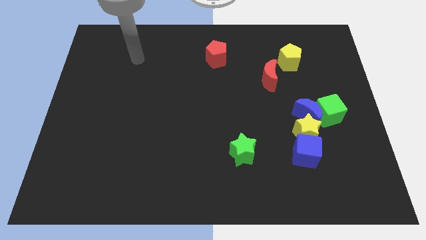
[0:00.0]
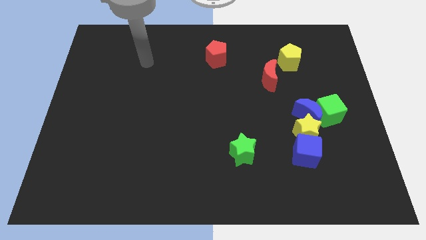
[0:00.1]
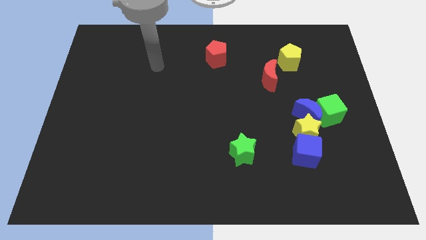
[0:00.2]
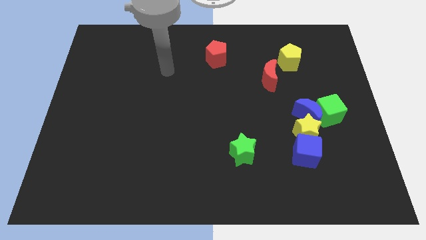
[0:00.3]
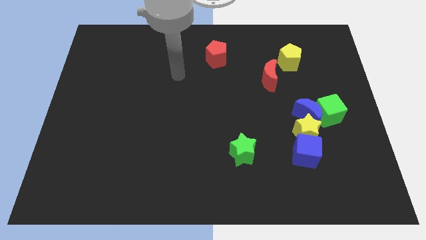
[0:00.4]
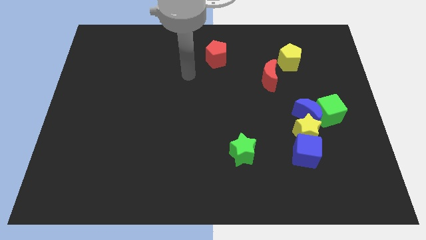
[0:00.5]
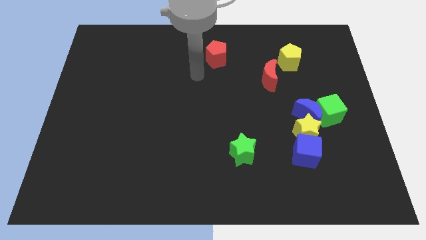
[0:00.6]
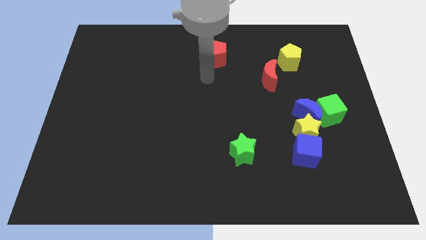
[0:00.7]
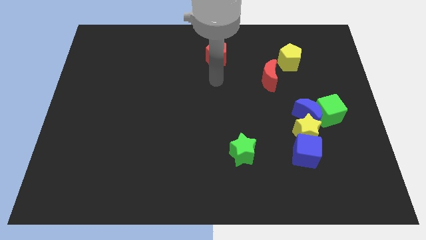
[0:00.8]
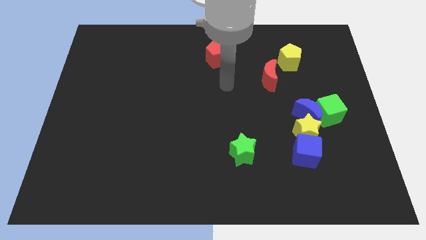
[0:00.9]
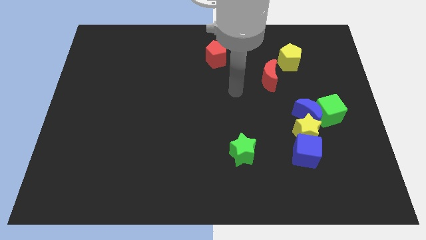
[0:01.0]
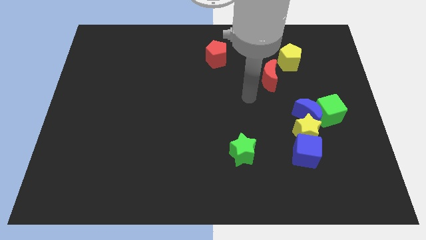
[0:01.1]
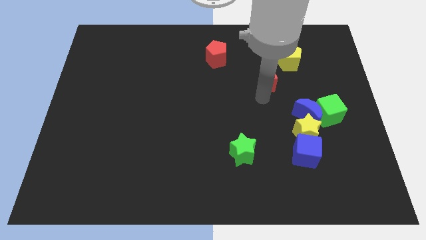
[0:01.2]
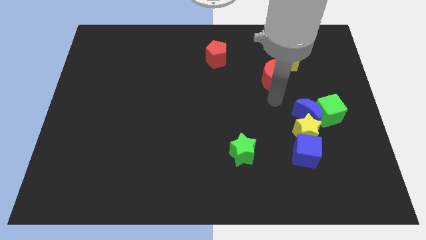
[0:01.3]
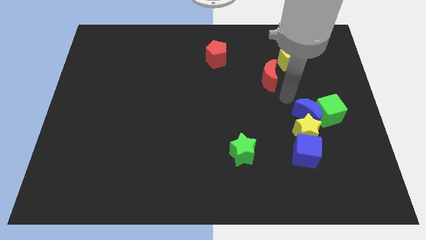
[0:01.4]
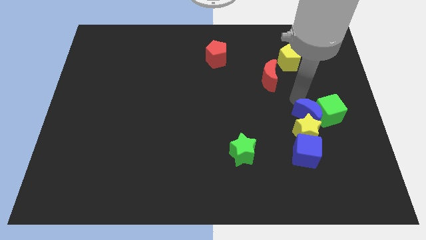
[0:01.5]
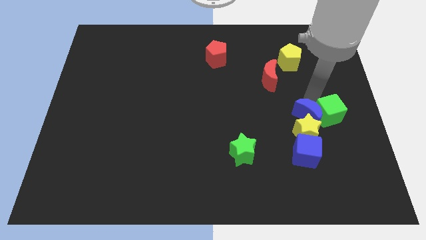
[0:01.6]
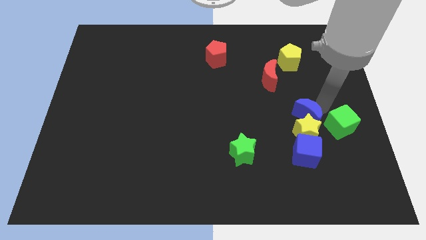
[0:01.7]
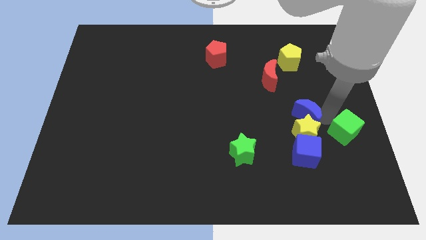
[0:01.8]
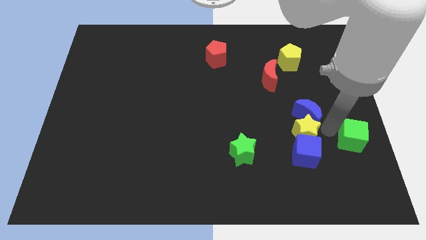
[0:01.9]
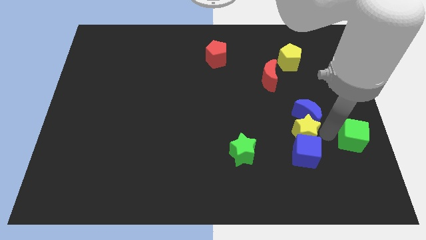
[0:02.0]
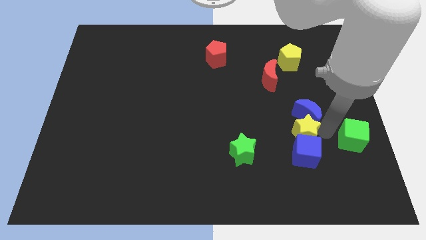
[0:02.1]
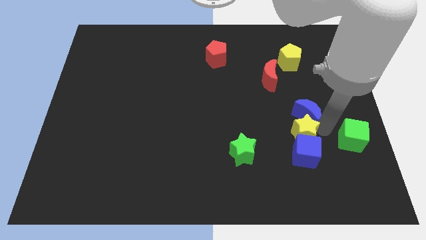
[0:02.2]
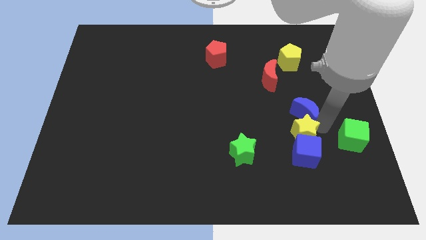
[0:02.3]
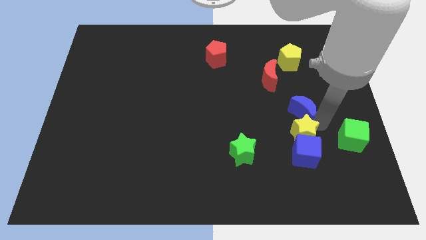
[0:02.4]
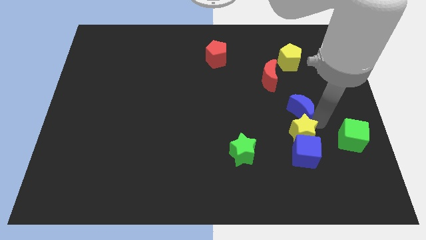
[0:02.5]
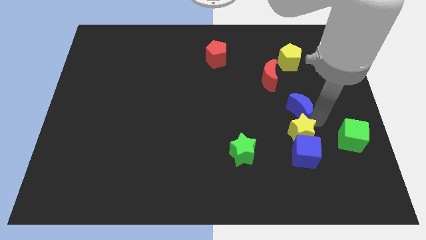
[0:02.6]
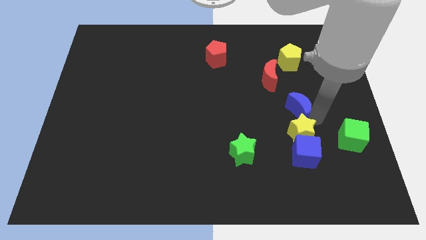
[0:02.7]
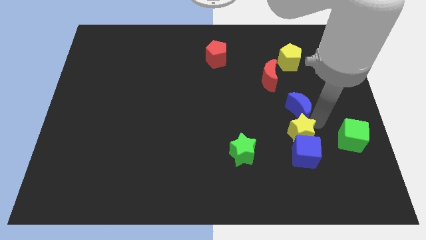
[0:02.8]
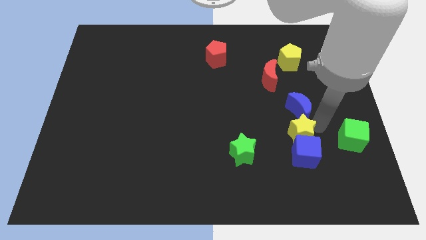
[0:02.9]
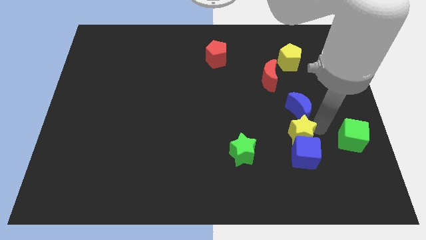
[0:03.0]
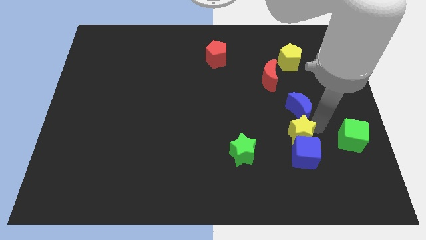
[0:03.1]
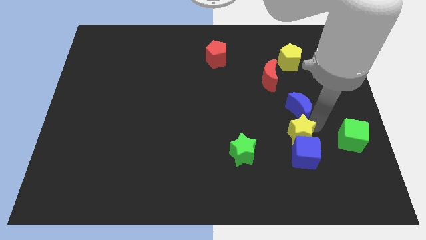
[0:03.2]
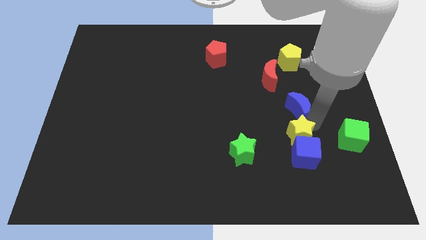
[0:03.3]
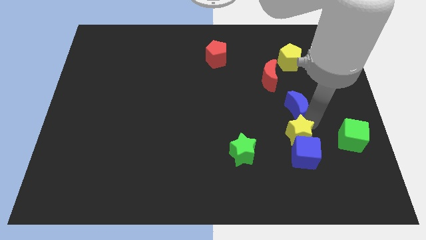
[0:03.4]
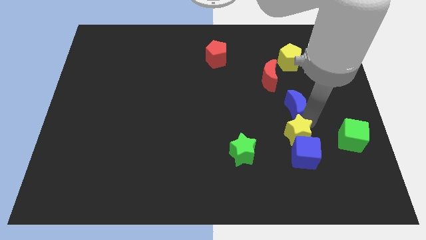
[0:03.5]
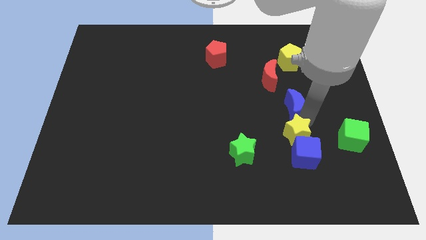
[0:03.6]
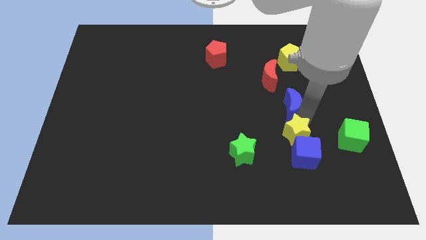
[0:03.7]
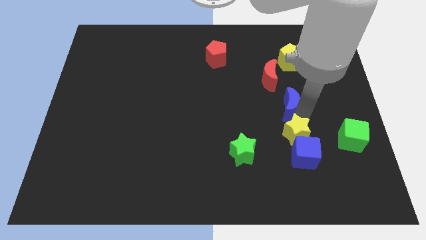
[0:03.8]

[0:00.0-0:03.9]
separate the blue moon from the green cube and yellow star

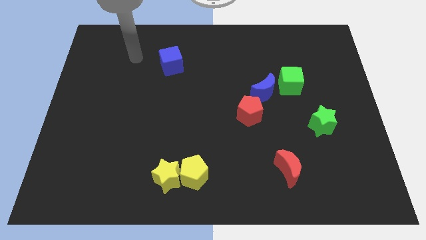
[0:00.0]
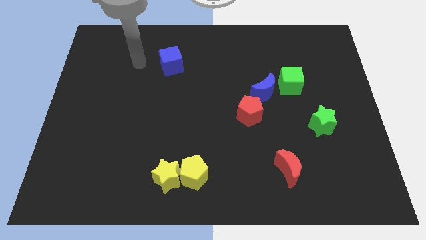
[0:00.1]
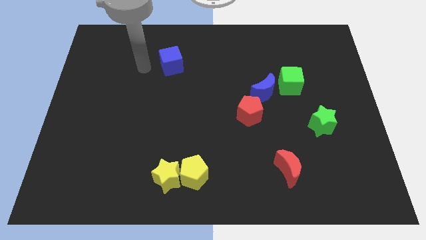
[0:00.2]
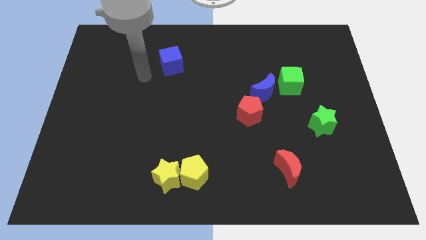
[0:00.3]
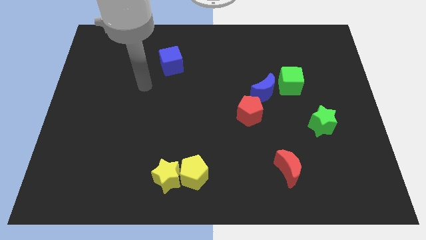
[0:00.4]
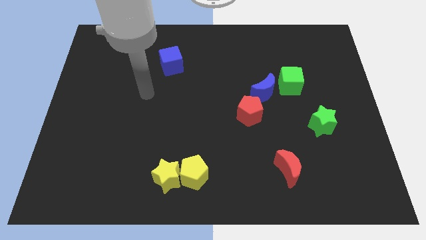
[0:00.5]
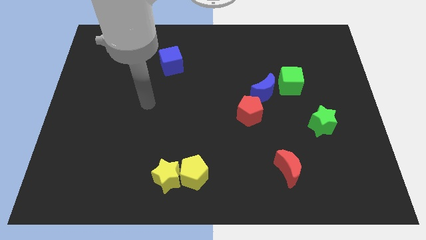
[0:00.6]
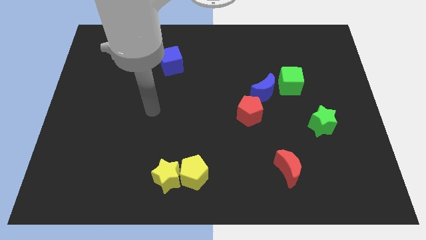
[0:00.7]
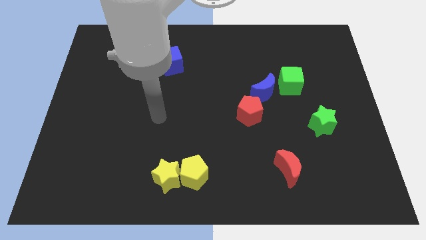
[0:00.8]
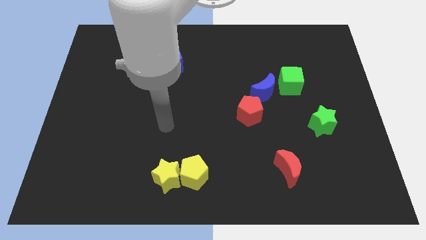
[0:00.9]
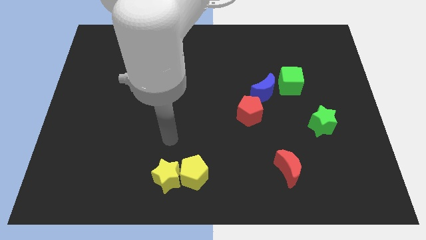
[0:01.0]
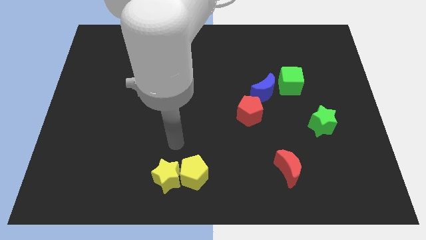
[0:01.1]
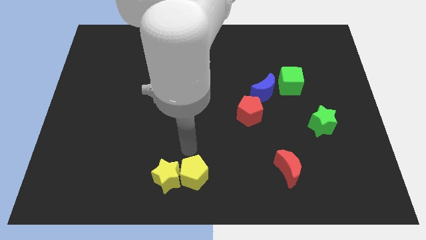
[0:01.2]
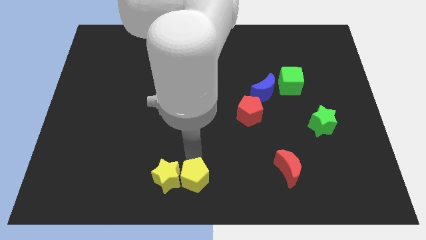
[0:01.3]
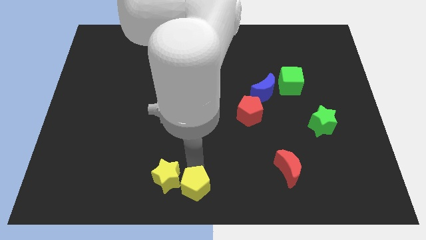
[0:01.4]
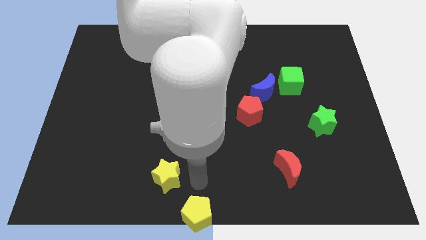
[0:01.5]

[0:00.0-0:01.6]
pull the yellow star apart from the yellow pentagon

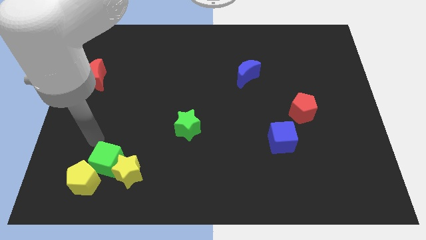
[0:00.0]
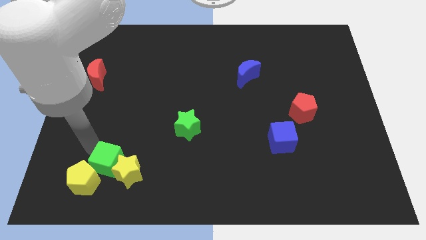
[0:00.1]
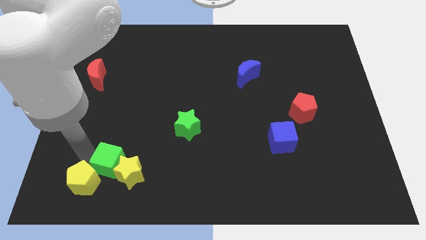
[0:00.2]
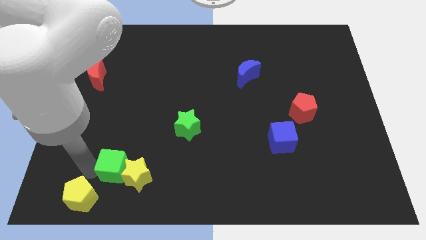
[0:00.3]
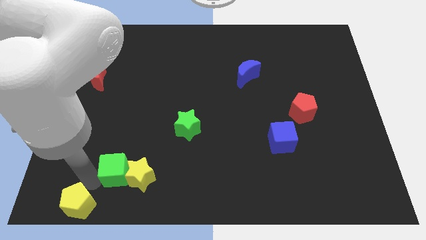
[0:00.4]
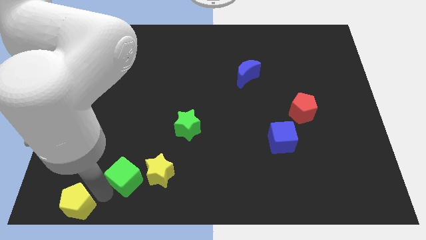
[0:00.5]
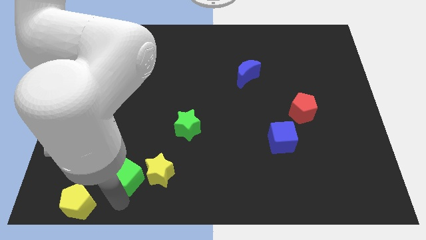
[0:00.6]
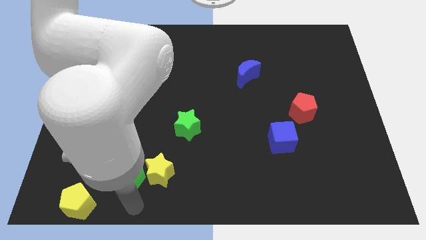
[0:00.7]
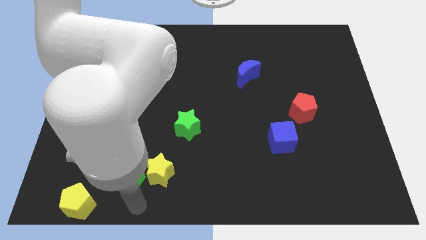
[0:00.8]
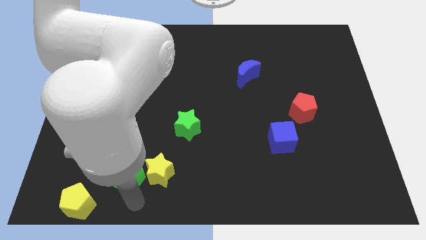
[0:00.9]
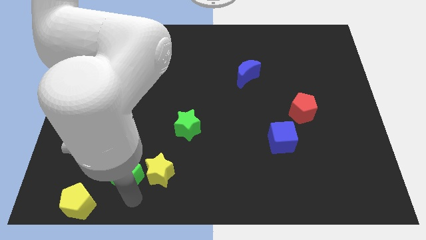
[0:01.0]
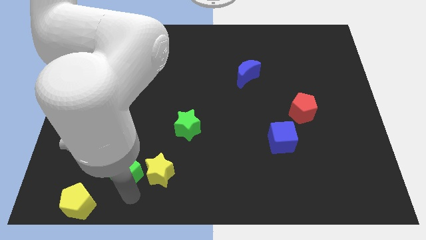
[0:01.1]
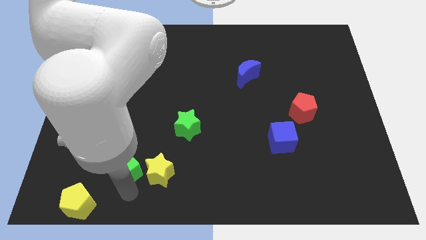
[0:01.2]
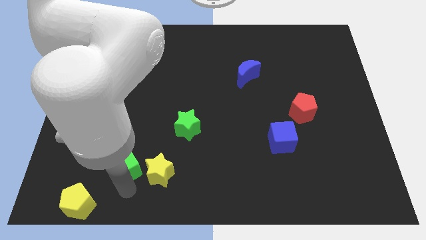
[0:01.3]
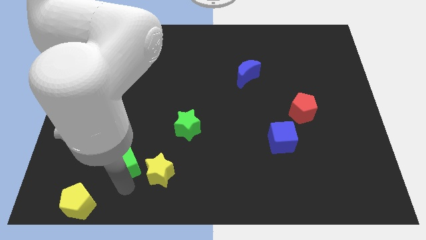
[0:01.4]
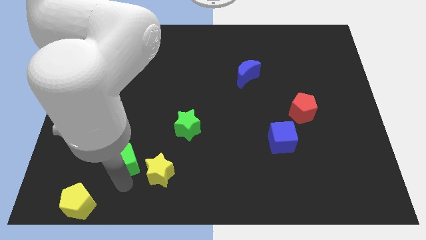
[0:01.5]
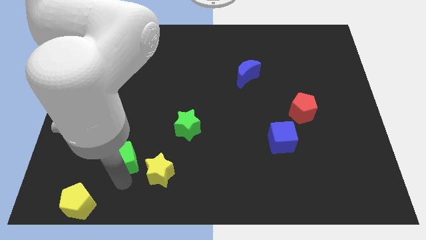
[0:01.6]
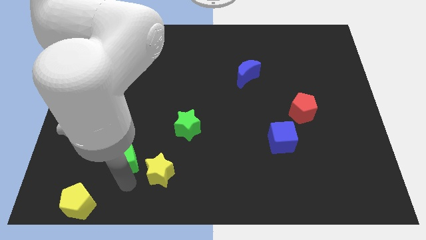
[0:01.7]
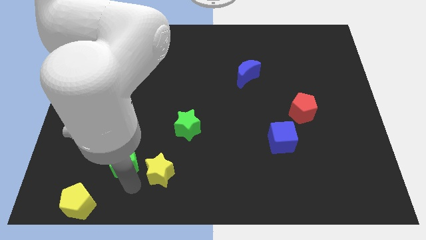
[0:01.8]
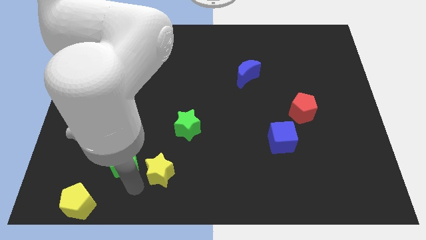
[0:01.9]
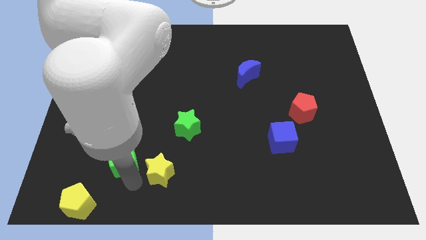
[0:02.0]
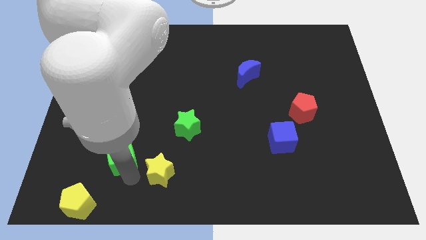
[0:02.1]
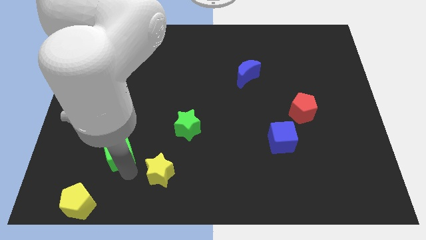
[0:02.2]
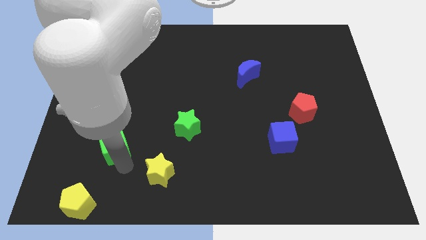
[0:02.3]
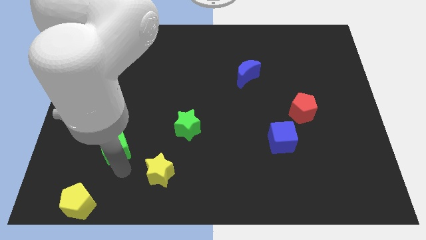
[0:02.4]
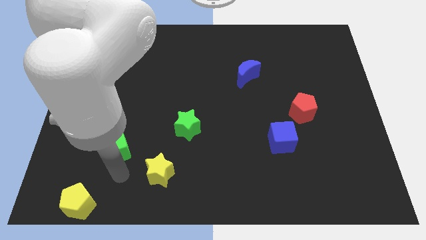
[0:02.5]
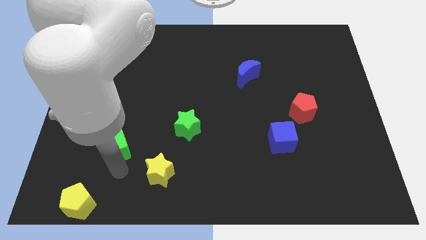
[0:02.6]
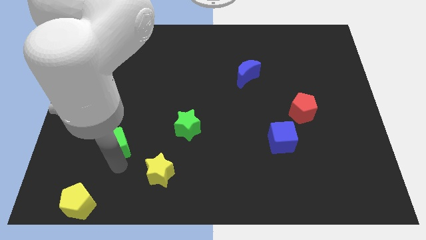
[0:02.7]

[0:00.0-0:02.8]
pull the green cube apart from the yellow star and yellow pentagon

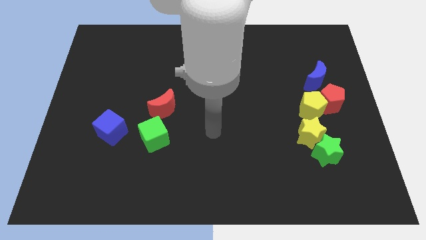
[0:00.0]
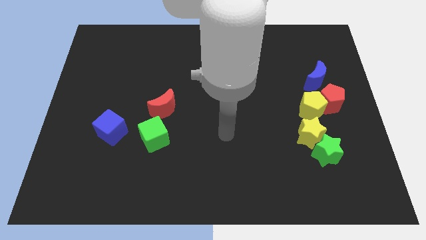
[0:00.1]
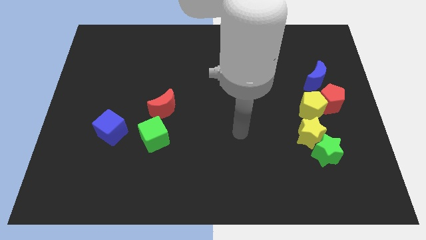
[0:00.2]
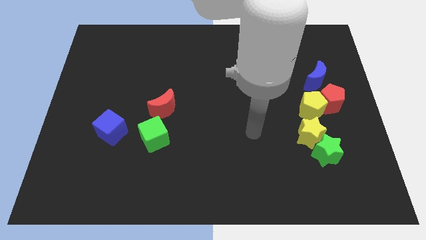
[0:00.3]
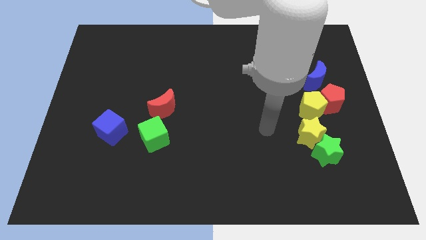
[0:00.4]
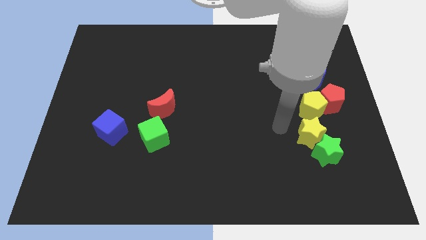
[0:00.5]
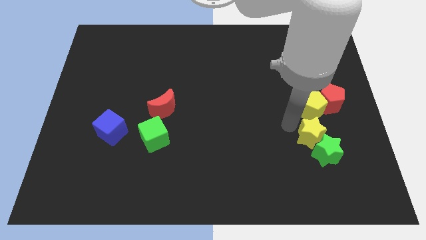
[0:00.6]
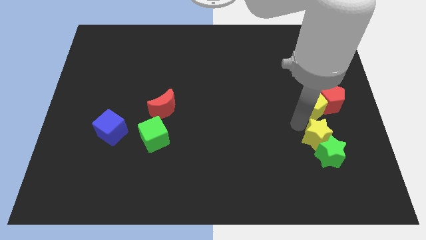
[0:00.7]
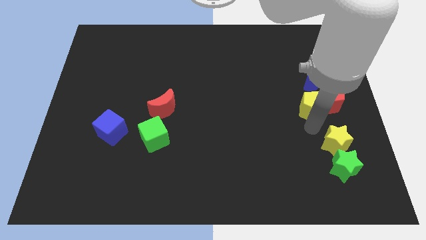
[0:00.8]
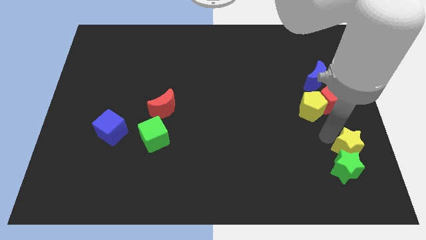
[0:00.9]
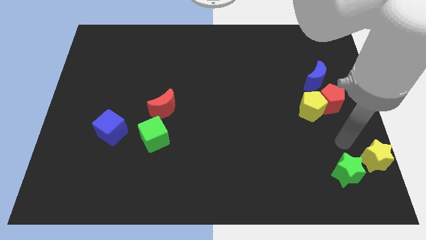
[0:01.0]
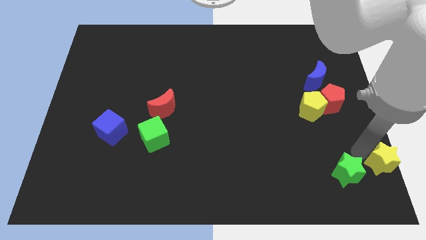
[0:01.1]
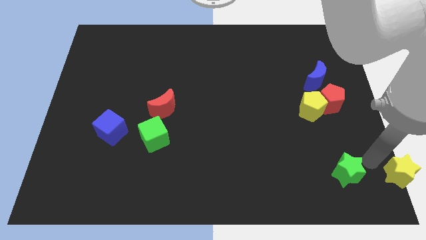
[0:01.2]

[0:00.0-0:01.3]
move the green star away from the yellow star
